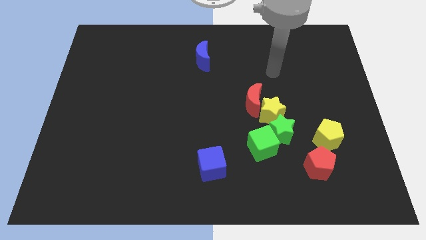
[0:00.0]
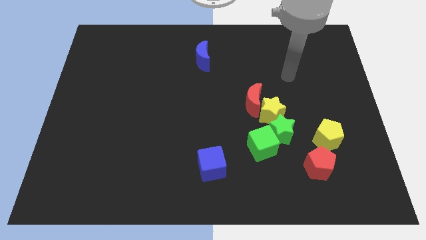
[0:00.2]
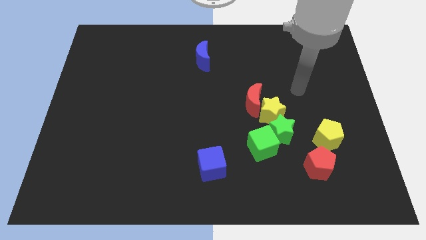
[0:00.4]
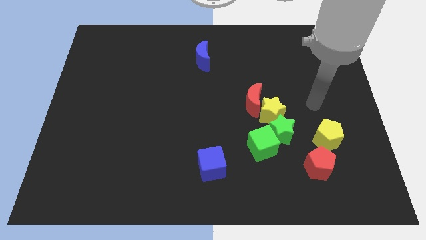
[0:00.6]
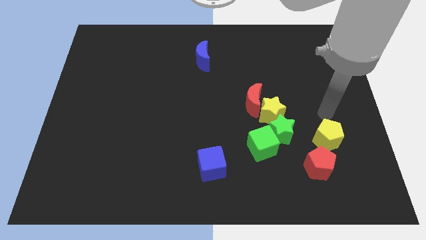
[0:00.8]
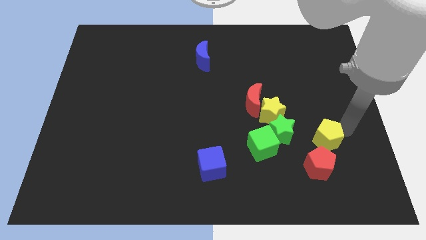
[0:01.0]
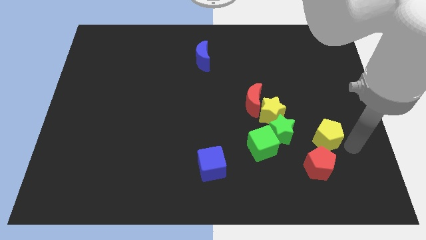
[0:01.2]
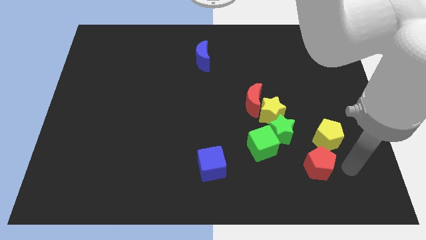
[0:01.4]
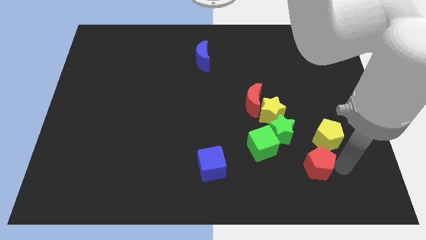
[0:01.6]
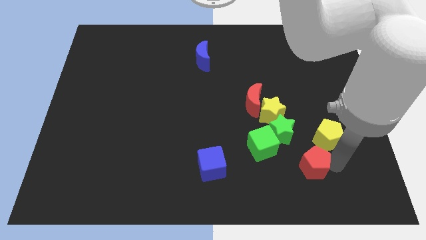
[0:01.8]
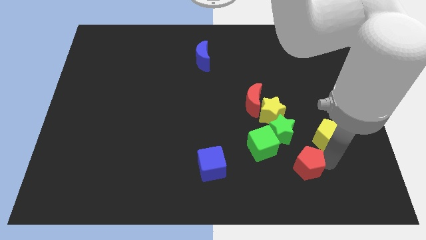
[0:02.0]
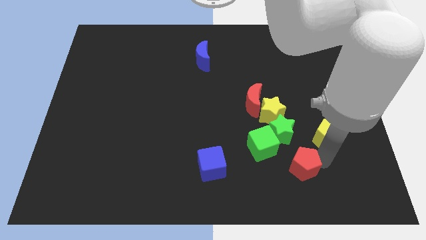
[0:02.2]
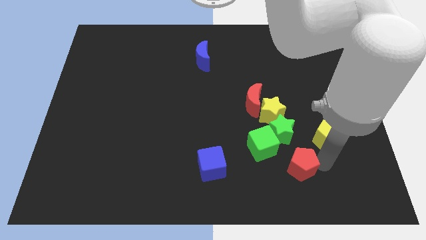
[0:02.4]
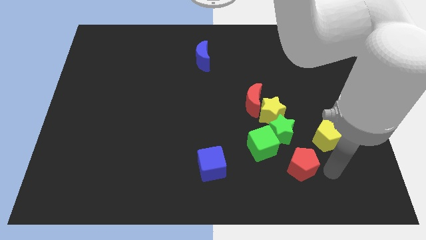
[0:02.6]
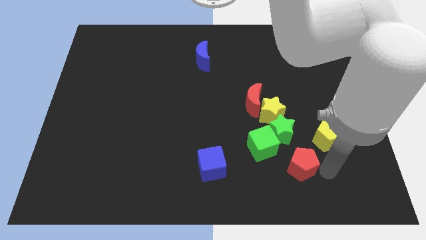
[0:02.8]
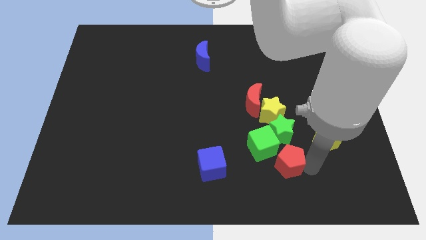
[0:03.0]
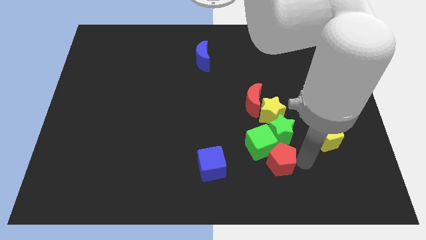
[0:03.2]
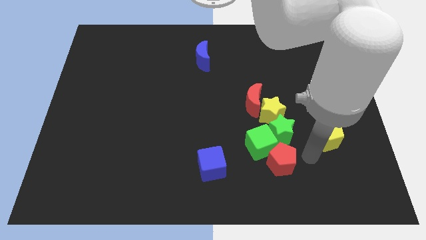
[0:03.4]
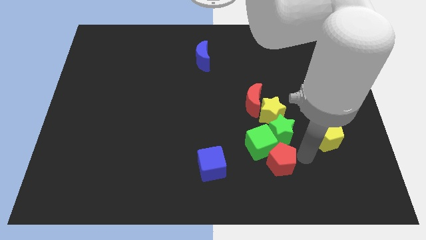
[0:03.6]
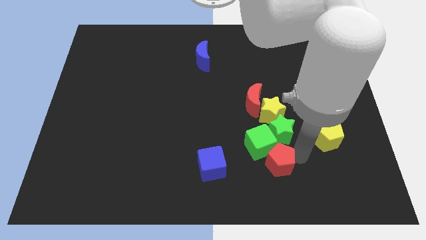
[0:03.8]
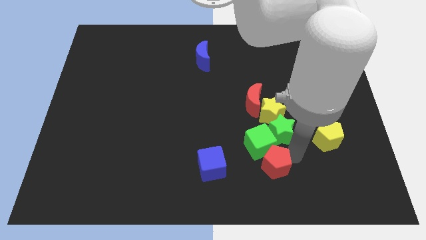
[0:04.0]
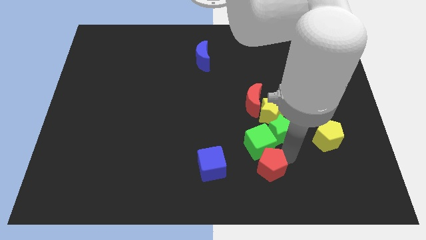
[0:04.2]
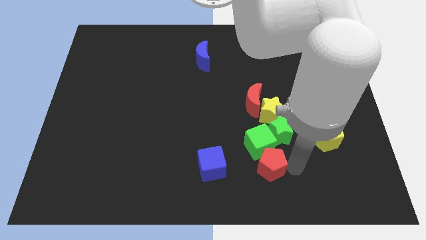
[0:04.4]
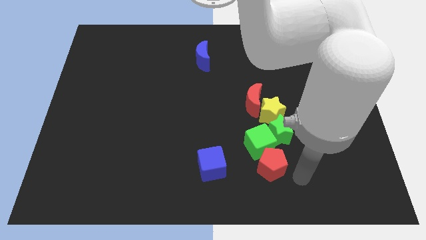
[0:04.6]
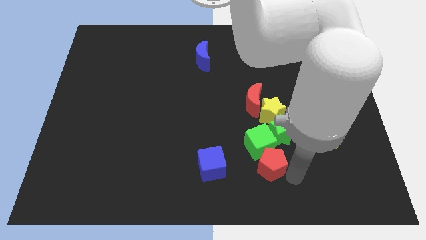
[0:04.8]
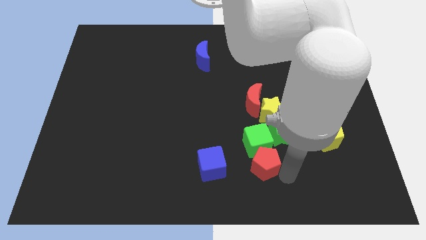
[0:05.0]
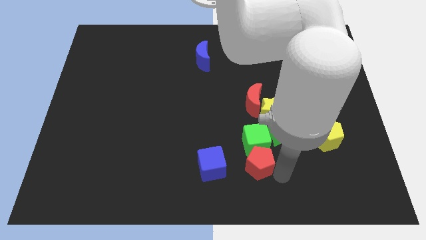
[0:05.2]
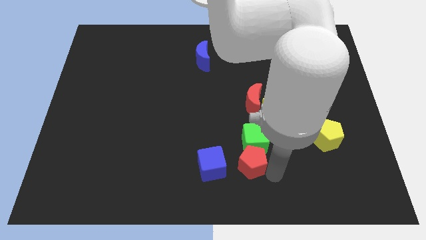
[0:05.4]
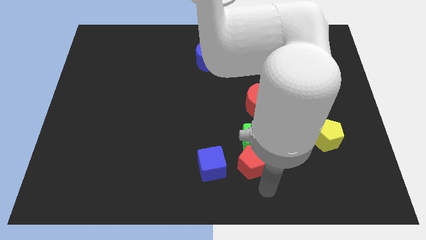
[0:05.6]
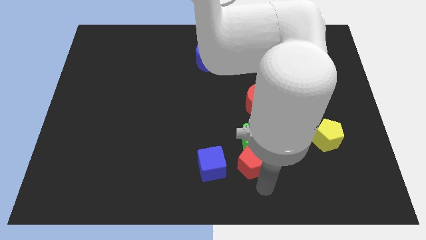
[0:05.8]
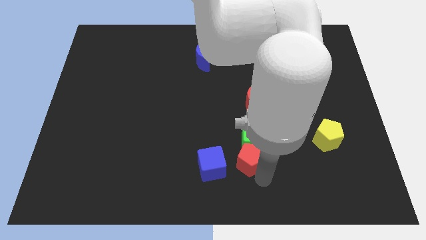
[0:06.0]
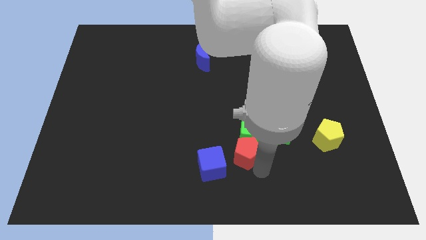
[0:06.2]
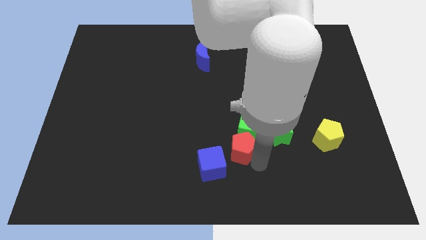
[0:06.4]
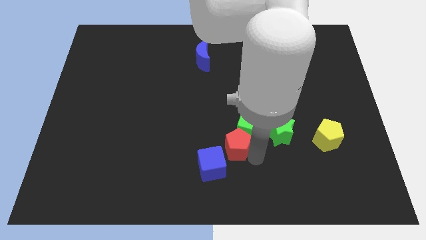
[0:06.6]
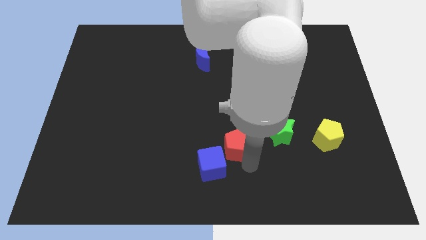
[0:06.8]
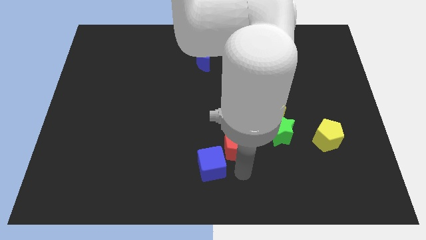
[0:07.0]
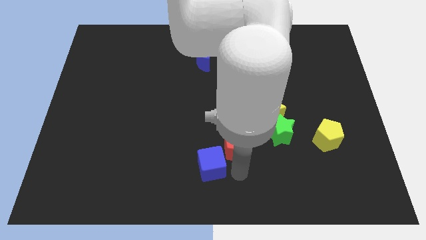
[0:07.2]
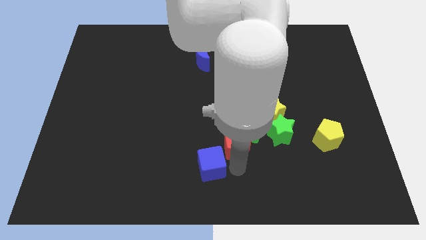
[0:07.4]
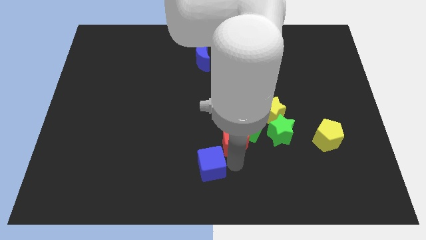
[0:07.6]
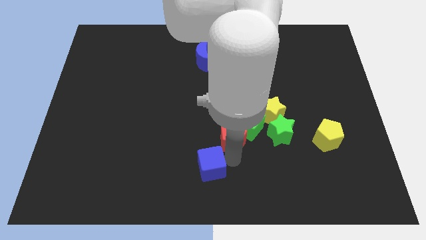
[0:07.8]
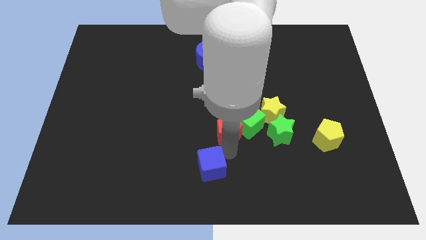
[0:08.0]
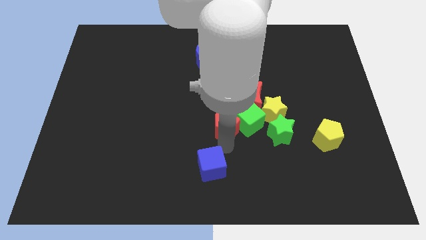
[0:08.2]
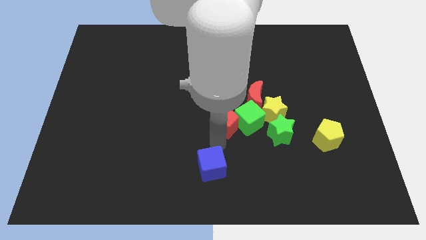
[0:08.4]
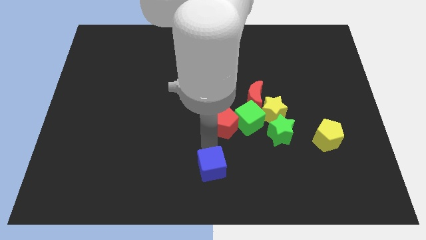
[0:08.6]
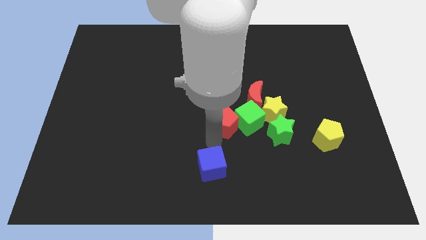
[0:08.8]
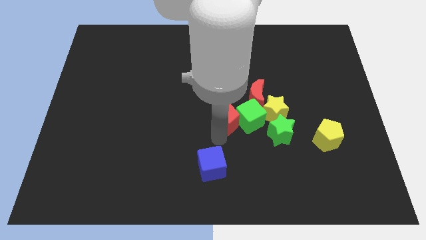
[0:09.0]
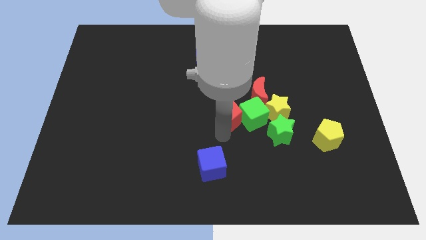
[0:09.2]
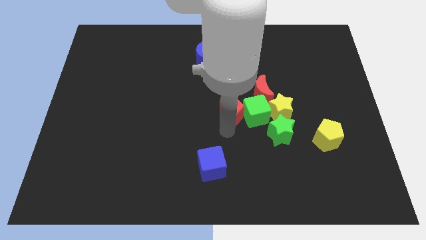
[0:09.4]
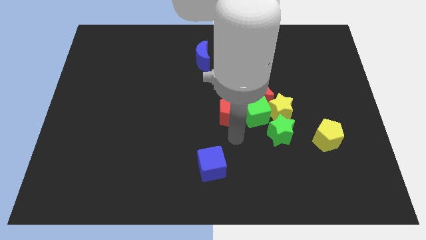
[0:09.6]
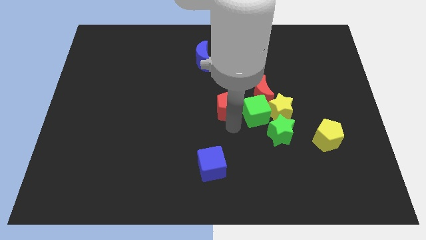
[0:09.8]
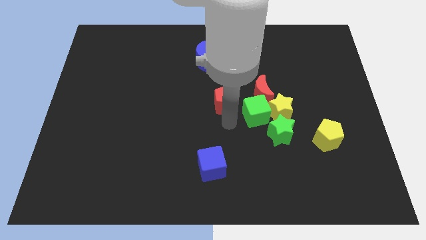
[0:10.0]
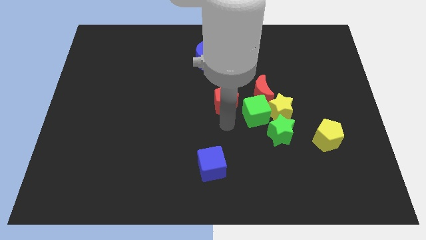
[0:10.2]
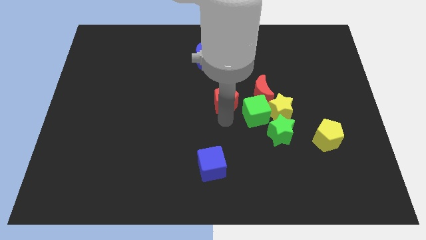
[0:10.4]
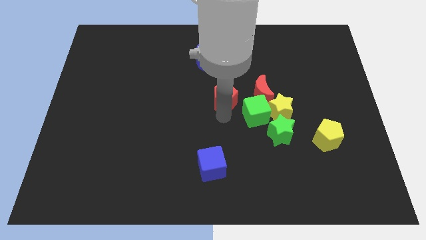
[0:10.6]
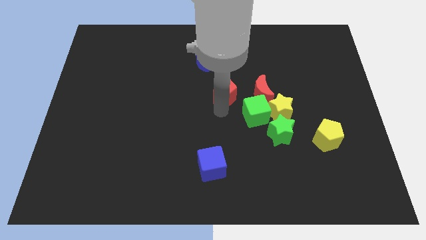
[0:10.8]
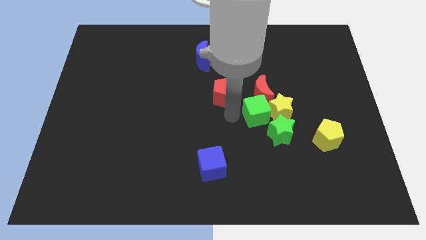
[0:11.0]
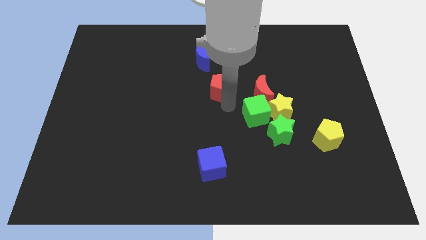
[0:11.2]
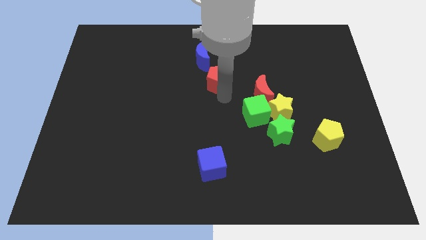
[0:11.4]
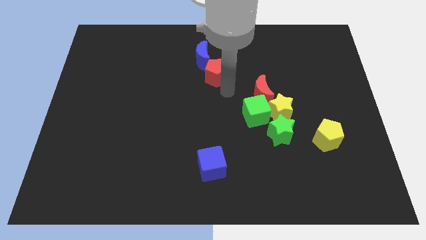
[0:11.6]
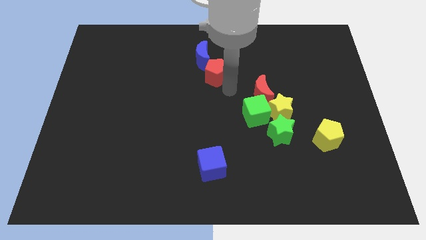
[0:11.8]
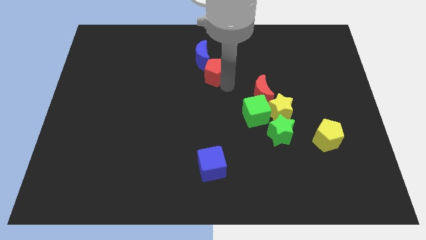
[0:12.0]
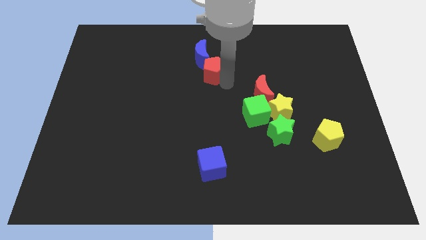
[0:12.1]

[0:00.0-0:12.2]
put the red pentagon to the blue moon
